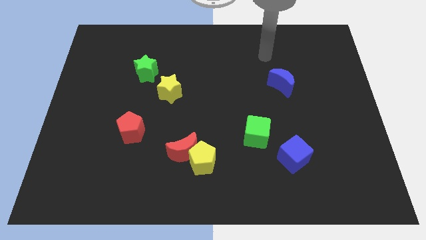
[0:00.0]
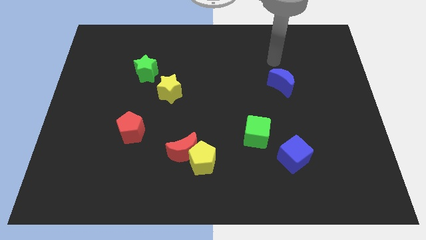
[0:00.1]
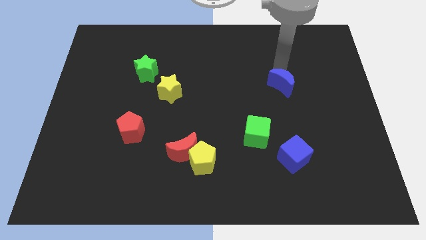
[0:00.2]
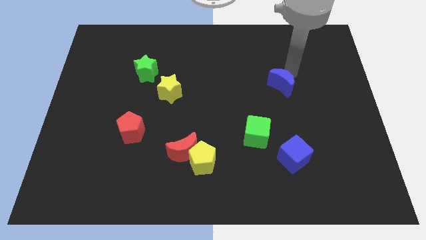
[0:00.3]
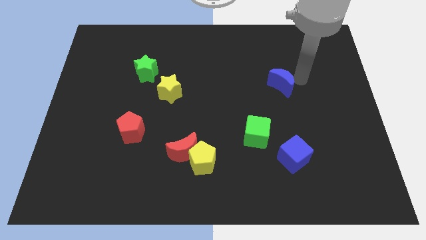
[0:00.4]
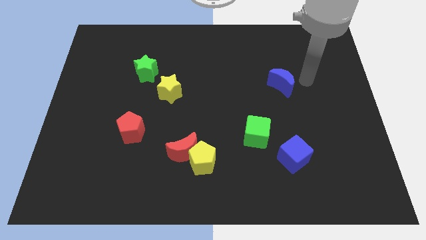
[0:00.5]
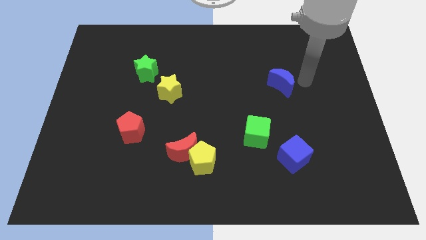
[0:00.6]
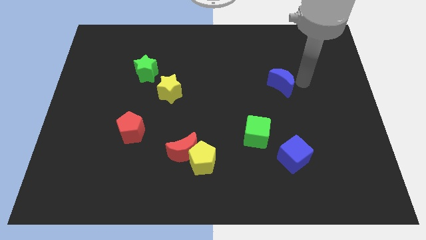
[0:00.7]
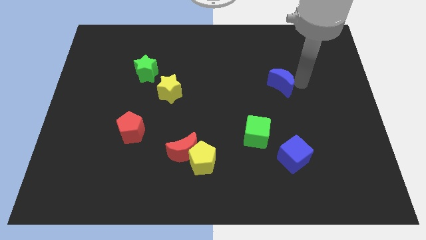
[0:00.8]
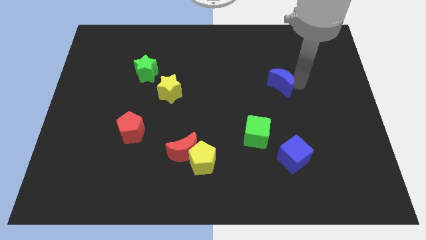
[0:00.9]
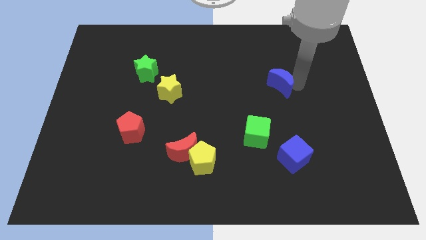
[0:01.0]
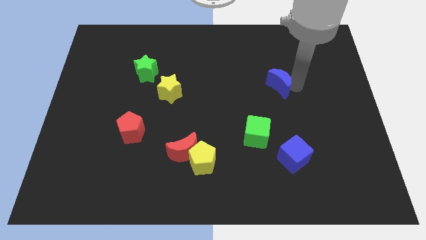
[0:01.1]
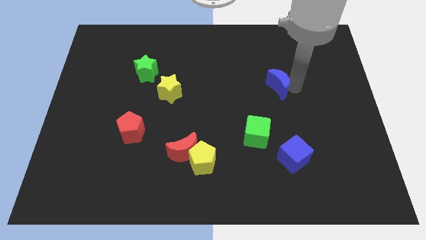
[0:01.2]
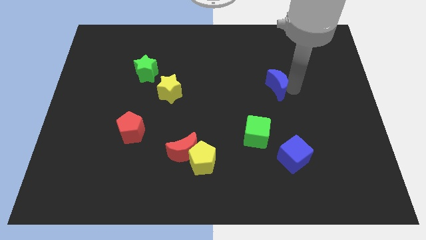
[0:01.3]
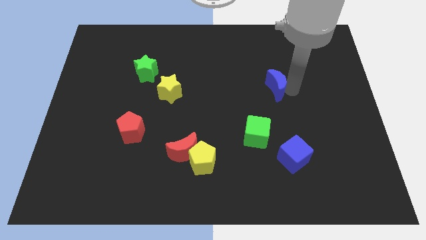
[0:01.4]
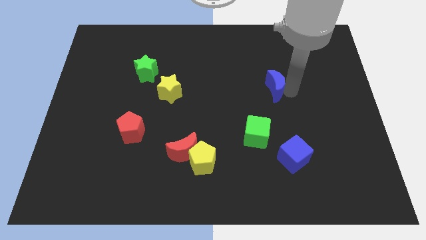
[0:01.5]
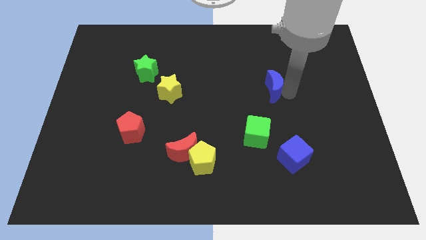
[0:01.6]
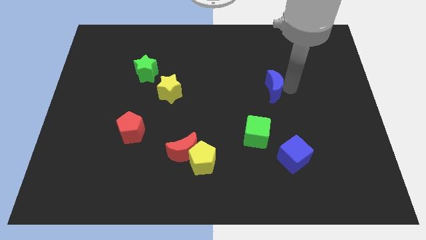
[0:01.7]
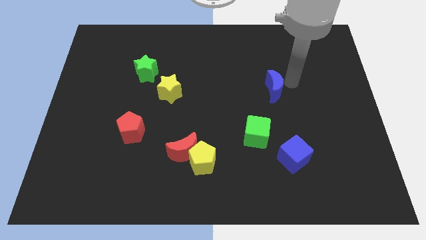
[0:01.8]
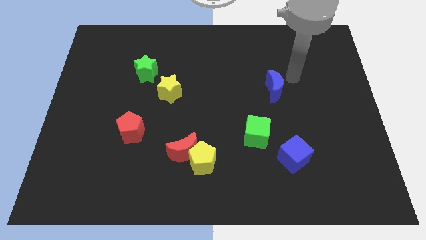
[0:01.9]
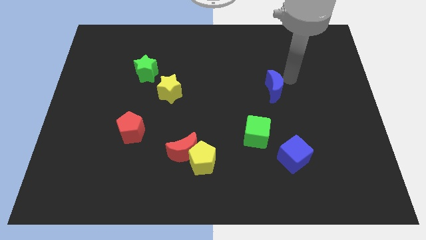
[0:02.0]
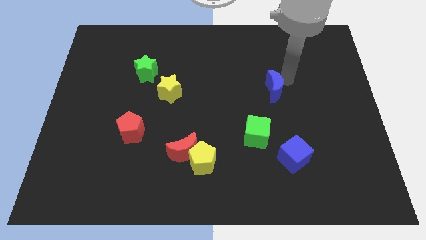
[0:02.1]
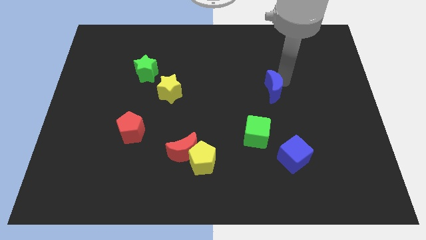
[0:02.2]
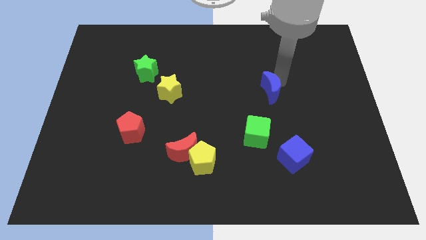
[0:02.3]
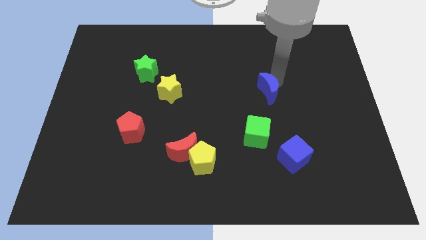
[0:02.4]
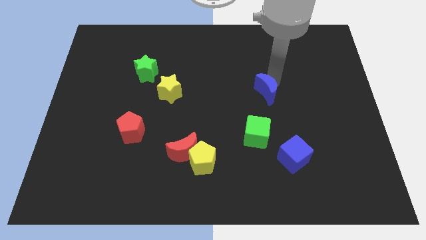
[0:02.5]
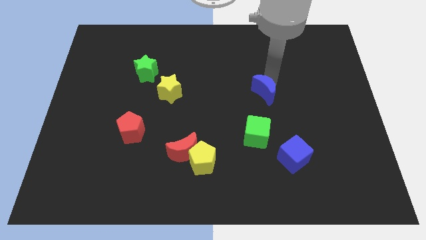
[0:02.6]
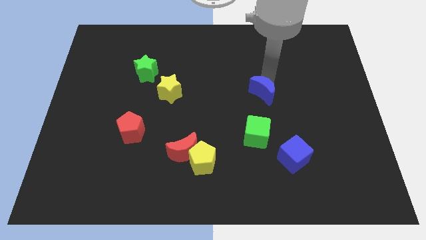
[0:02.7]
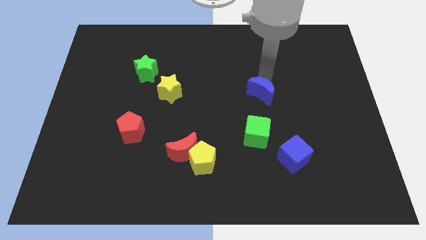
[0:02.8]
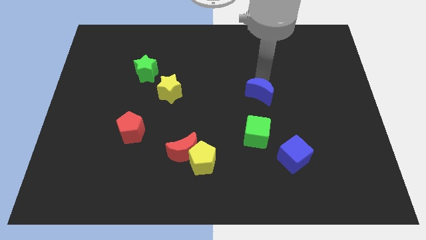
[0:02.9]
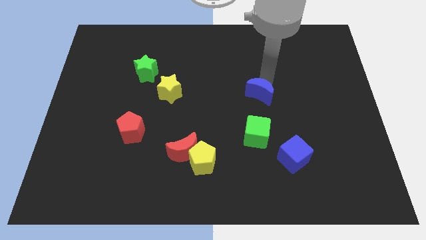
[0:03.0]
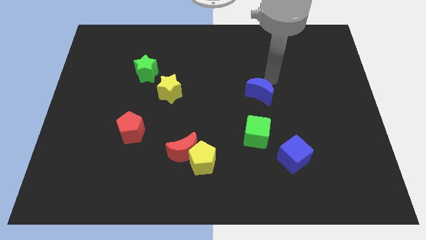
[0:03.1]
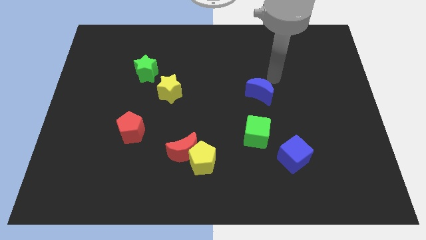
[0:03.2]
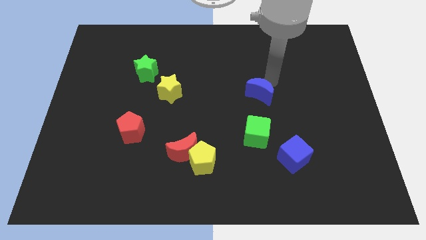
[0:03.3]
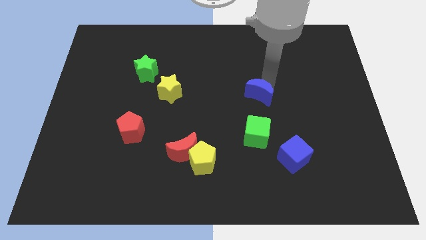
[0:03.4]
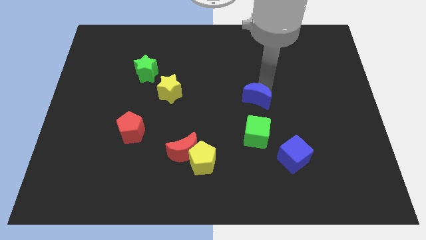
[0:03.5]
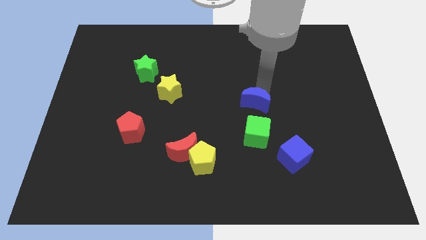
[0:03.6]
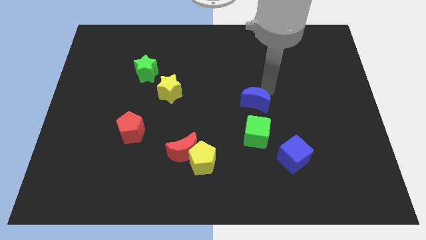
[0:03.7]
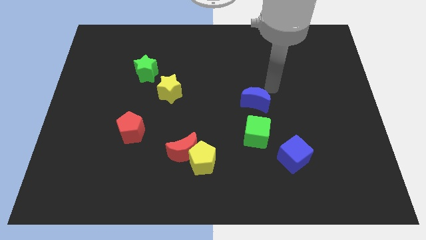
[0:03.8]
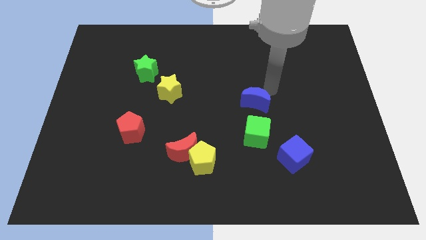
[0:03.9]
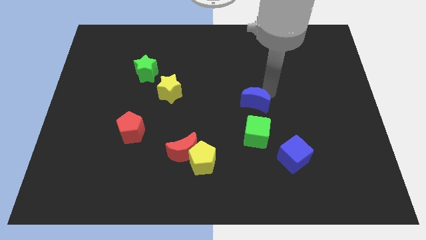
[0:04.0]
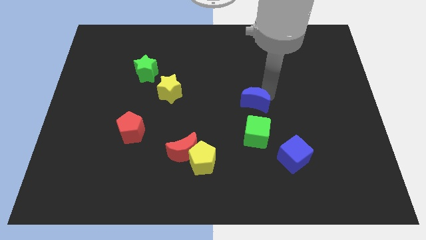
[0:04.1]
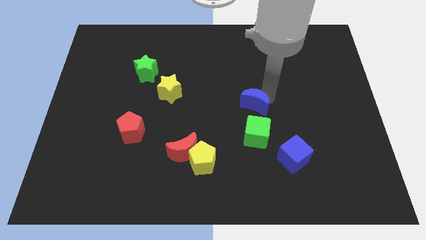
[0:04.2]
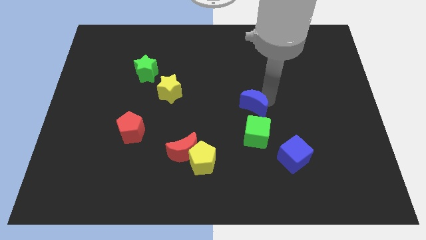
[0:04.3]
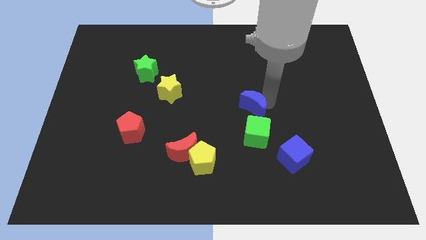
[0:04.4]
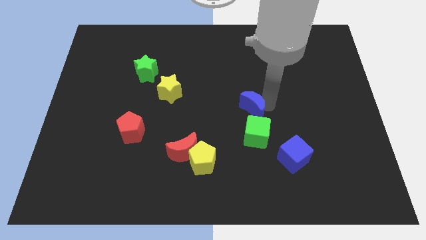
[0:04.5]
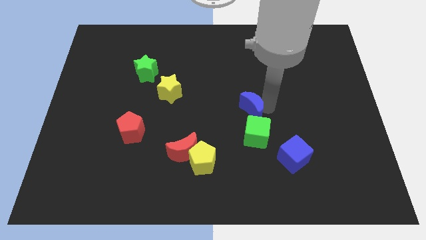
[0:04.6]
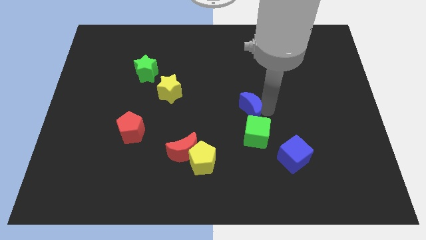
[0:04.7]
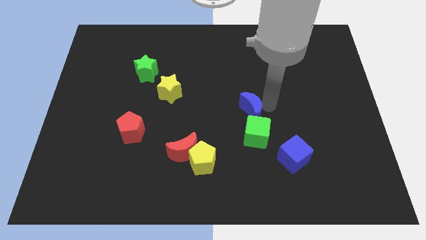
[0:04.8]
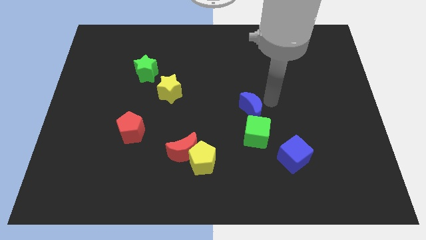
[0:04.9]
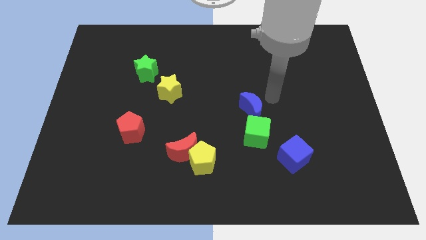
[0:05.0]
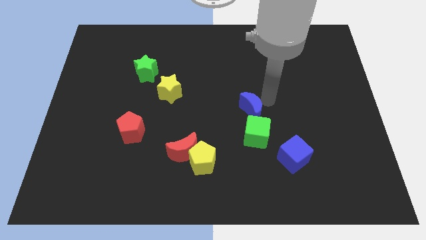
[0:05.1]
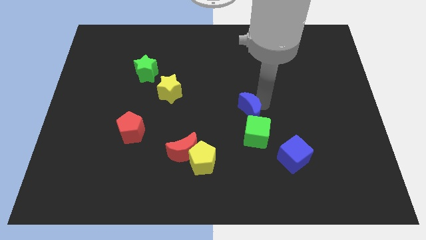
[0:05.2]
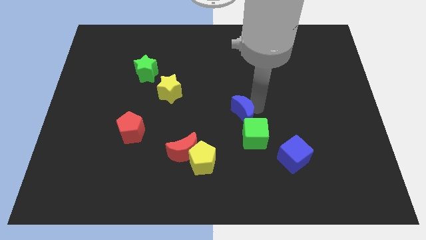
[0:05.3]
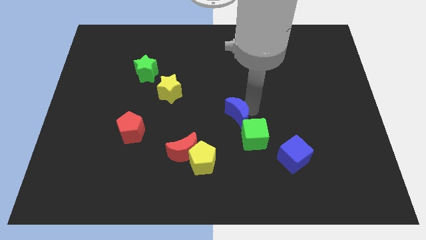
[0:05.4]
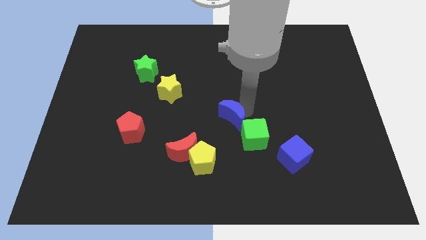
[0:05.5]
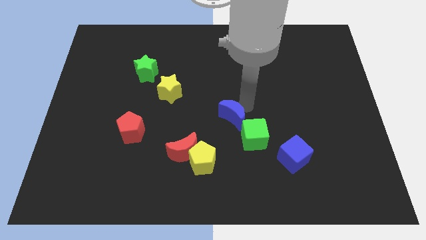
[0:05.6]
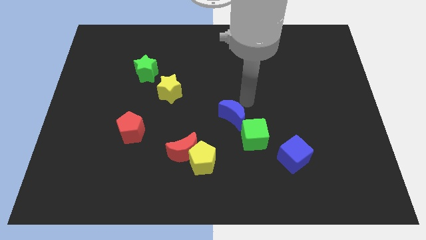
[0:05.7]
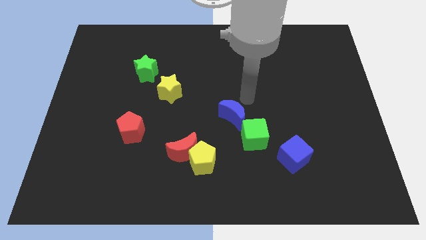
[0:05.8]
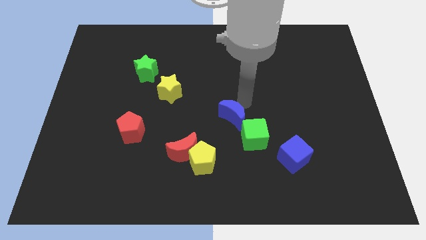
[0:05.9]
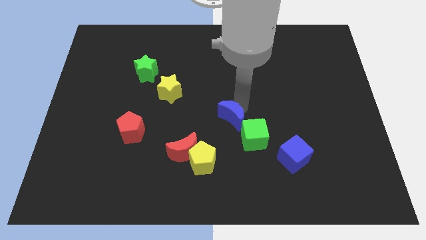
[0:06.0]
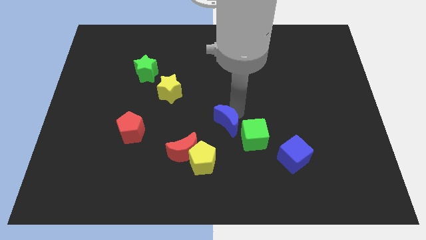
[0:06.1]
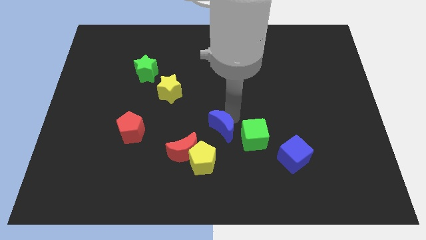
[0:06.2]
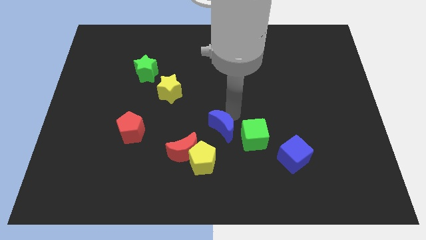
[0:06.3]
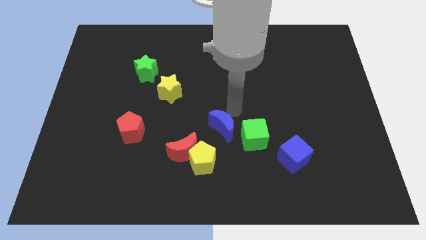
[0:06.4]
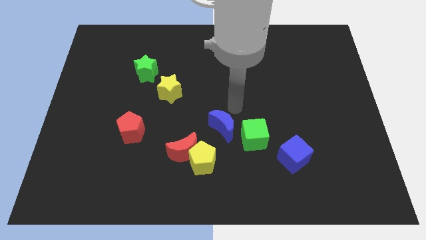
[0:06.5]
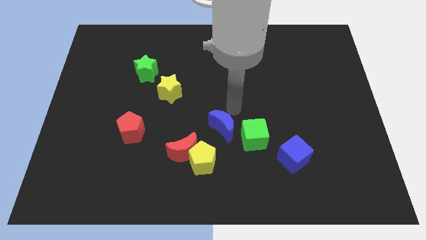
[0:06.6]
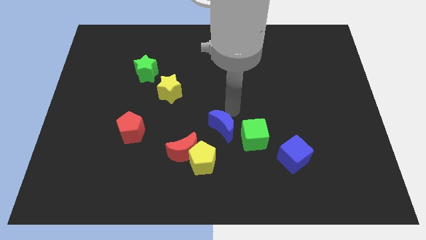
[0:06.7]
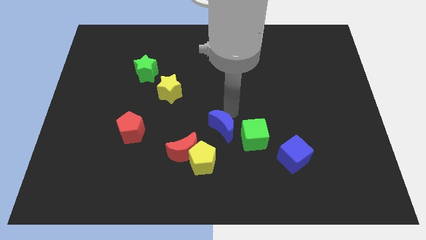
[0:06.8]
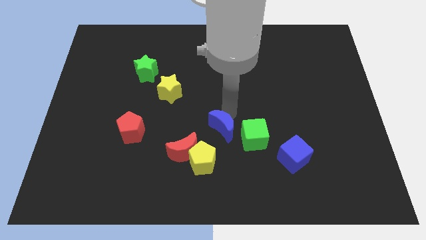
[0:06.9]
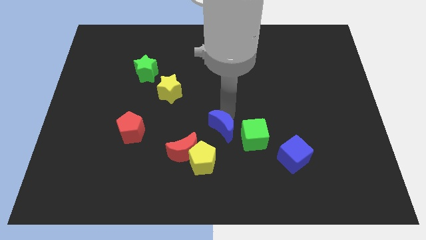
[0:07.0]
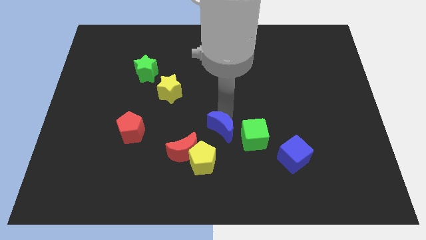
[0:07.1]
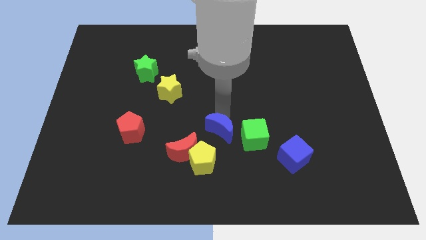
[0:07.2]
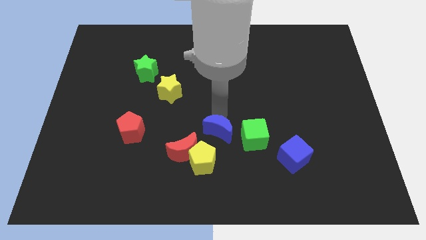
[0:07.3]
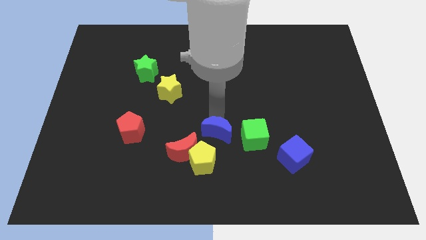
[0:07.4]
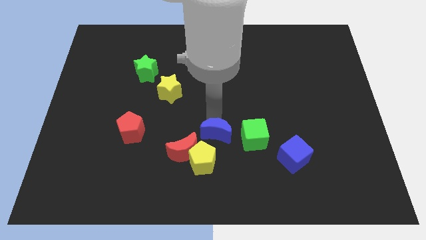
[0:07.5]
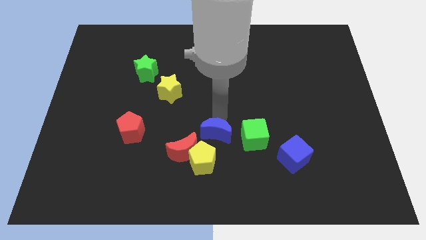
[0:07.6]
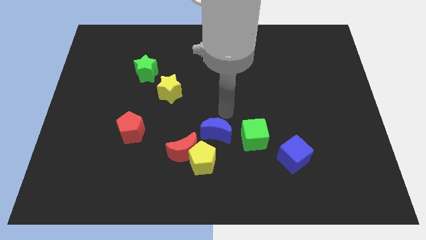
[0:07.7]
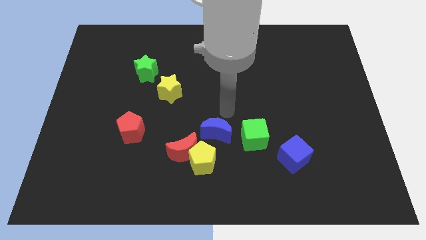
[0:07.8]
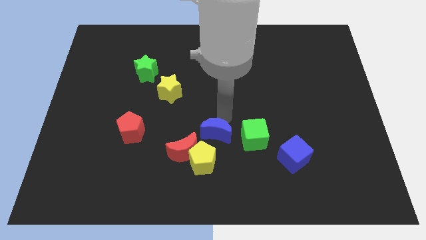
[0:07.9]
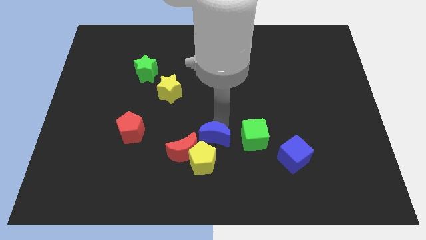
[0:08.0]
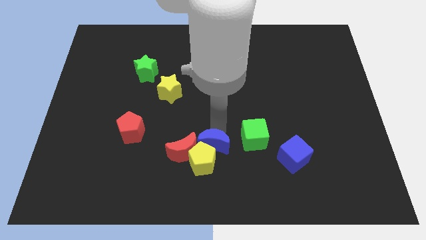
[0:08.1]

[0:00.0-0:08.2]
put the blue moon towards the yellow pentagon
